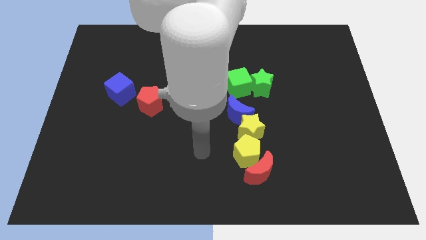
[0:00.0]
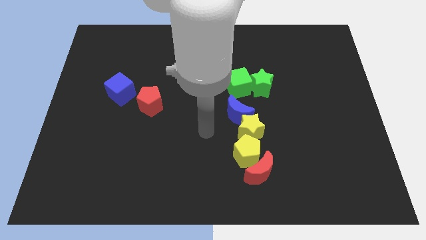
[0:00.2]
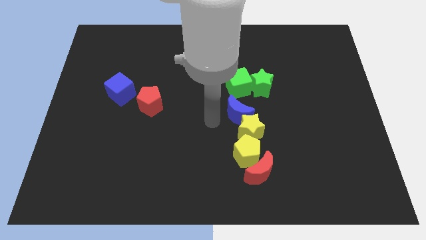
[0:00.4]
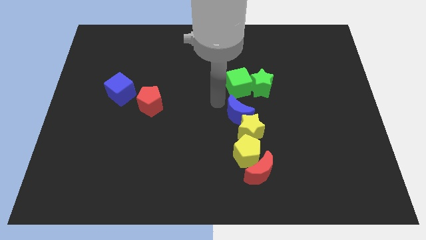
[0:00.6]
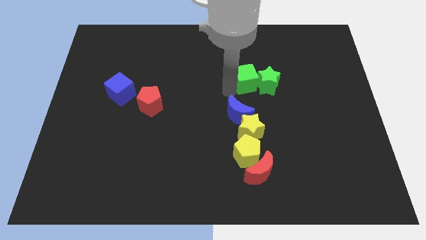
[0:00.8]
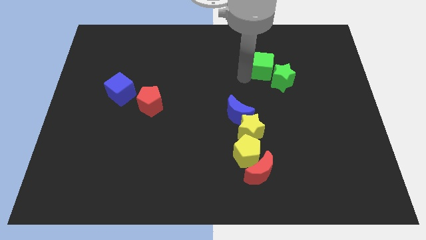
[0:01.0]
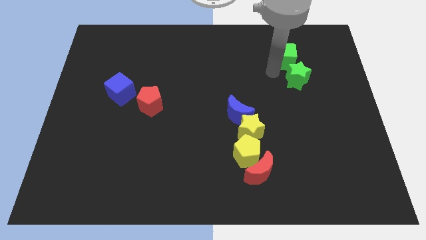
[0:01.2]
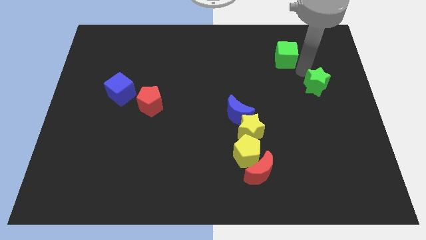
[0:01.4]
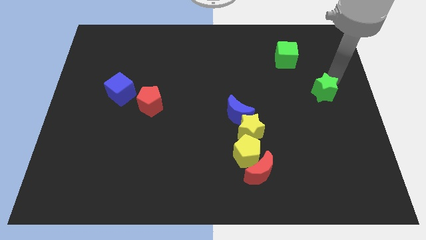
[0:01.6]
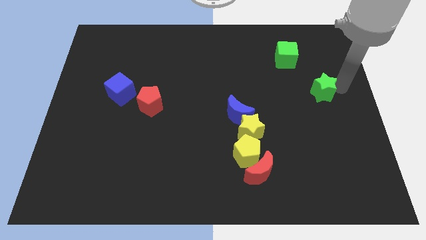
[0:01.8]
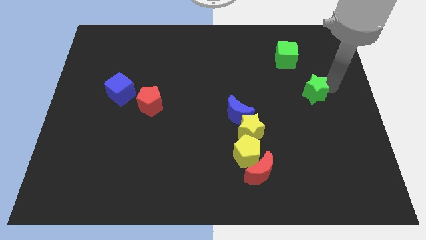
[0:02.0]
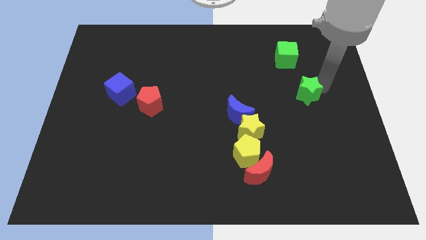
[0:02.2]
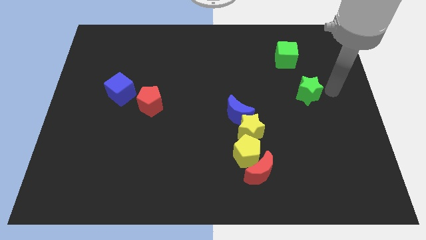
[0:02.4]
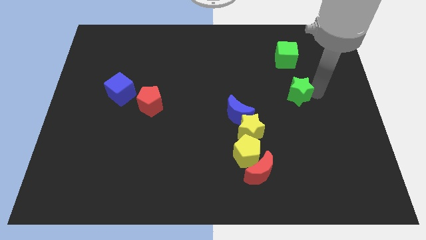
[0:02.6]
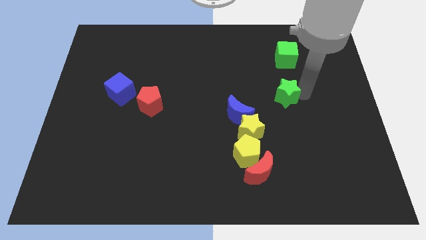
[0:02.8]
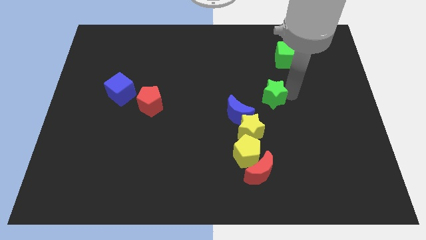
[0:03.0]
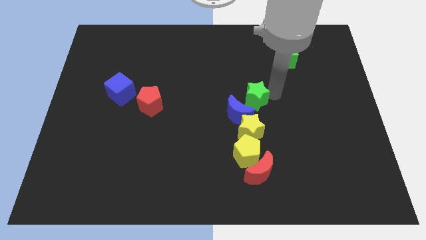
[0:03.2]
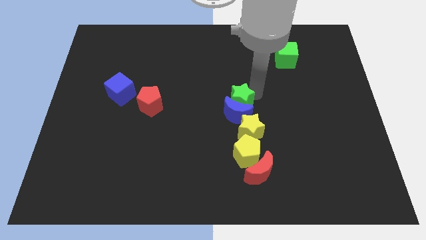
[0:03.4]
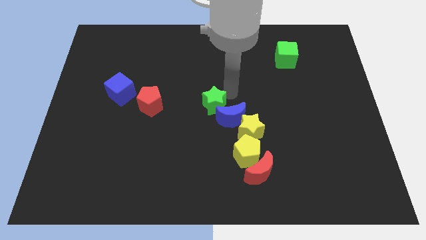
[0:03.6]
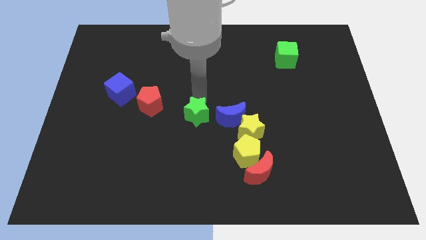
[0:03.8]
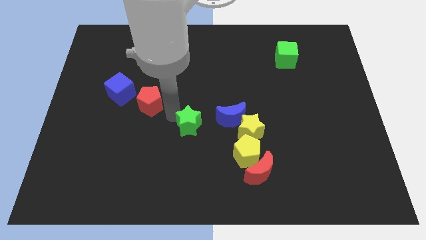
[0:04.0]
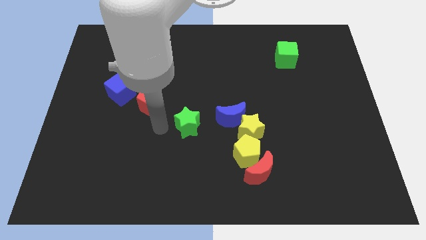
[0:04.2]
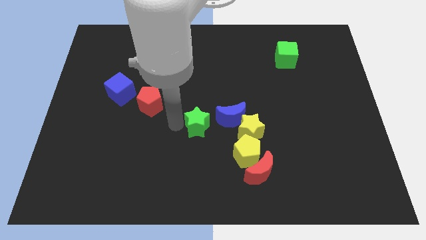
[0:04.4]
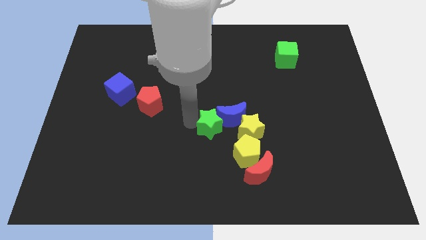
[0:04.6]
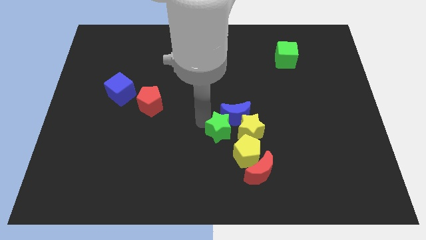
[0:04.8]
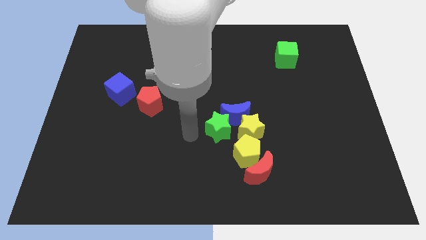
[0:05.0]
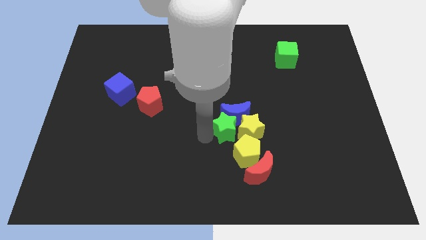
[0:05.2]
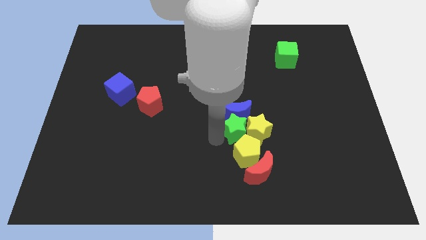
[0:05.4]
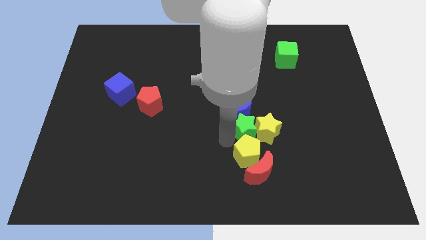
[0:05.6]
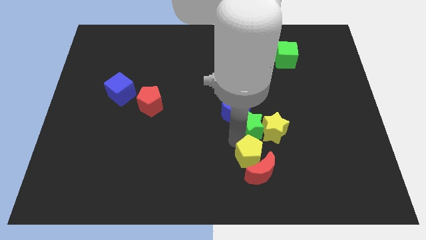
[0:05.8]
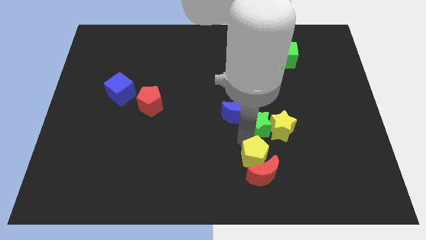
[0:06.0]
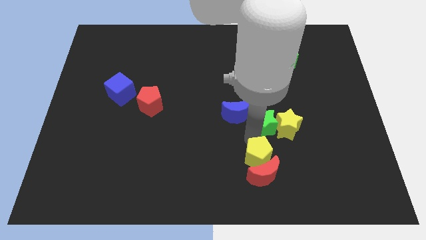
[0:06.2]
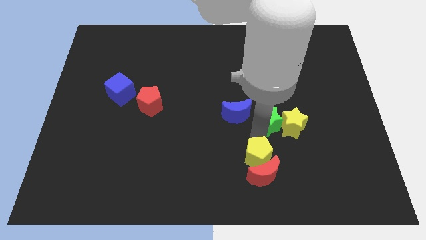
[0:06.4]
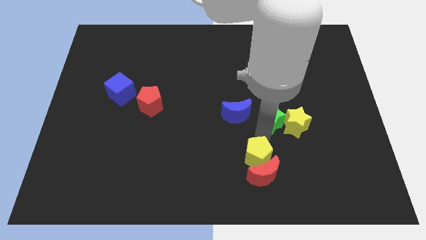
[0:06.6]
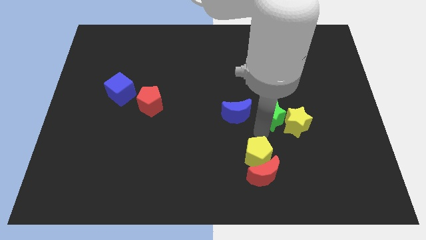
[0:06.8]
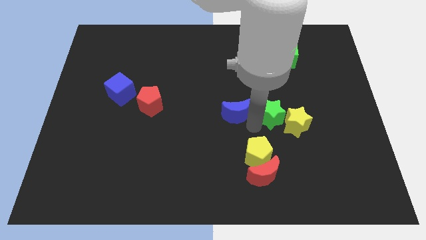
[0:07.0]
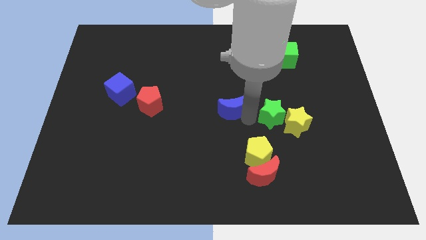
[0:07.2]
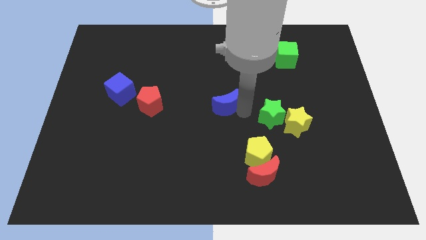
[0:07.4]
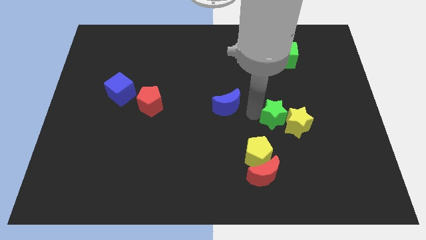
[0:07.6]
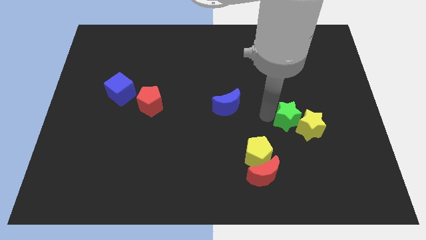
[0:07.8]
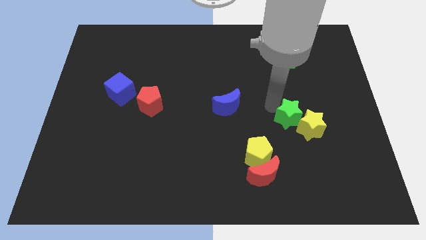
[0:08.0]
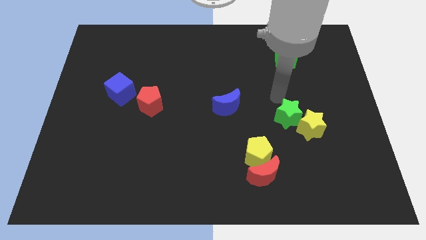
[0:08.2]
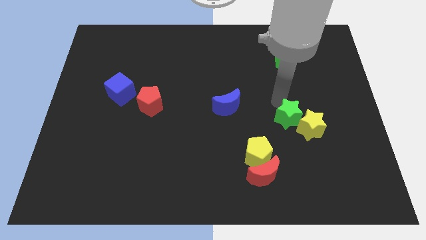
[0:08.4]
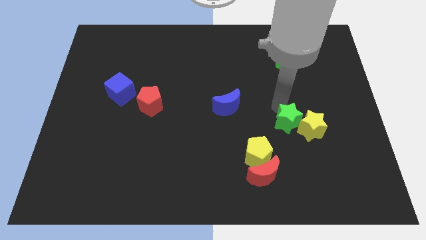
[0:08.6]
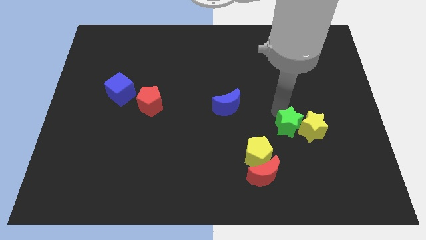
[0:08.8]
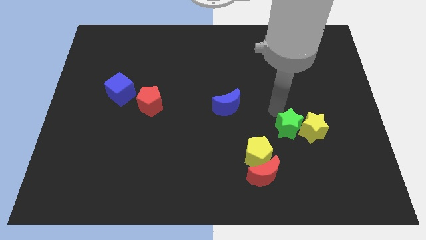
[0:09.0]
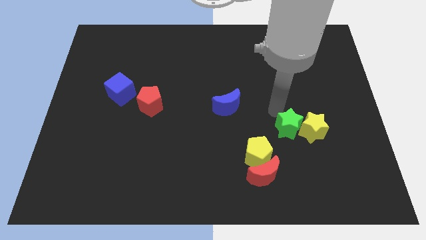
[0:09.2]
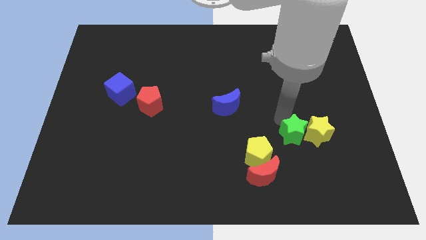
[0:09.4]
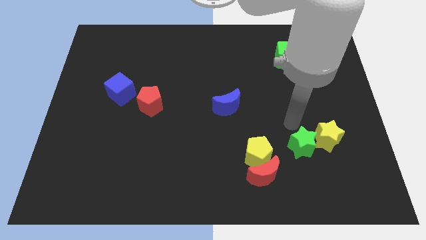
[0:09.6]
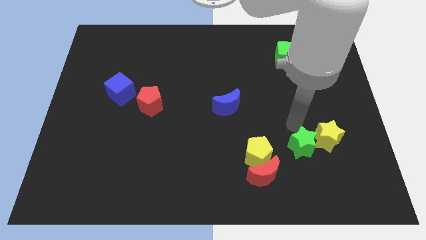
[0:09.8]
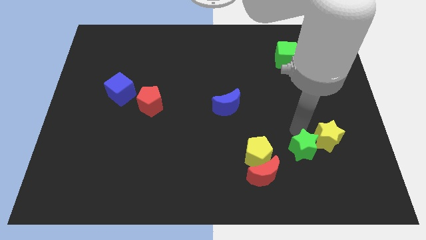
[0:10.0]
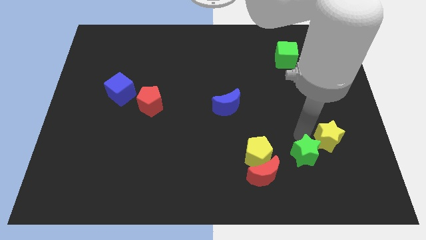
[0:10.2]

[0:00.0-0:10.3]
put the green star just right of the red moon

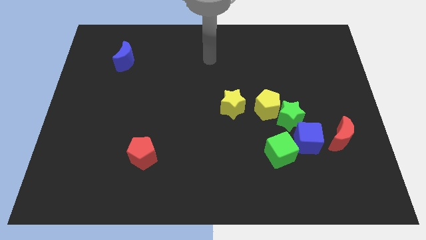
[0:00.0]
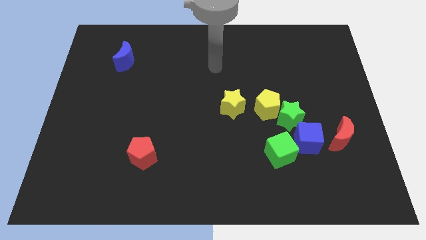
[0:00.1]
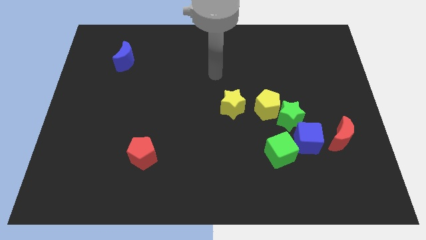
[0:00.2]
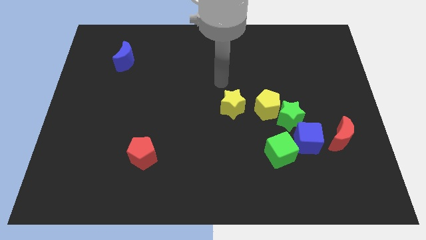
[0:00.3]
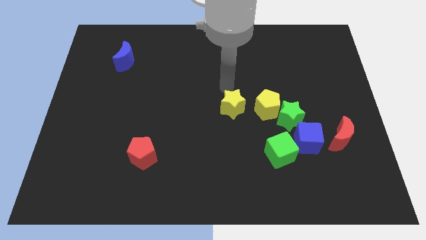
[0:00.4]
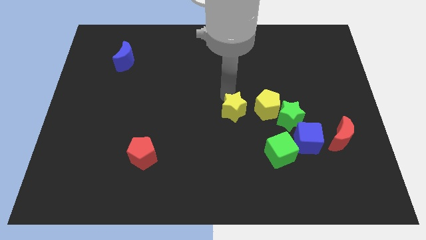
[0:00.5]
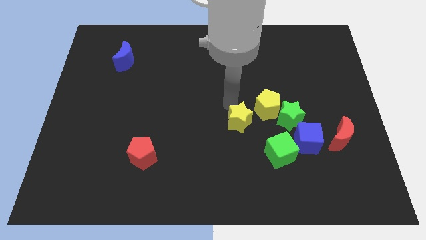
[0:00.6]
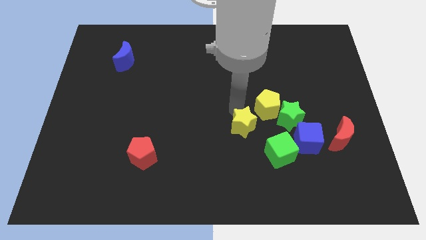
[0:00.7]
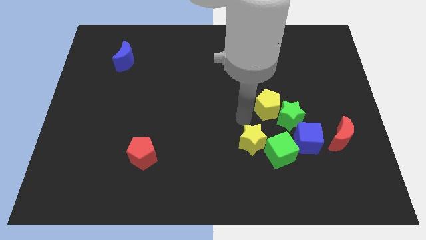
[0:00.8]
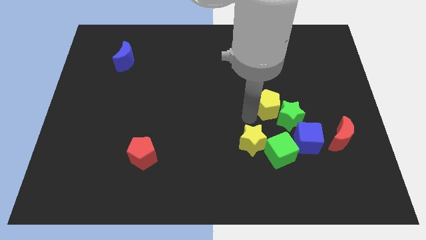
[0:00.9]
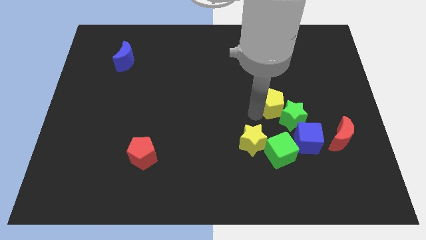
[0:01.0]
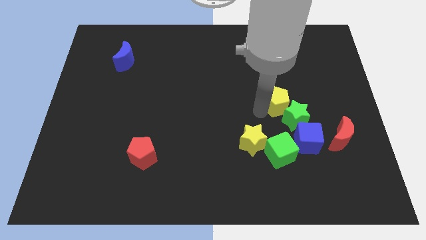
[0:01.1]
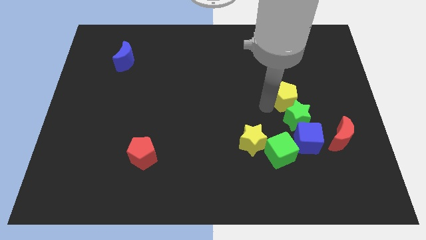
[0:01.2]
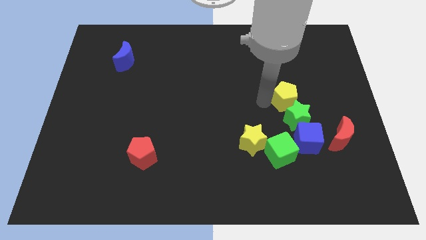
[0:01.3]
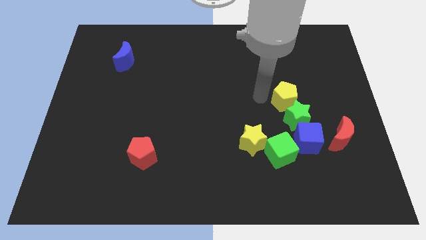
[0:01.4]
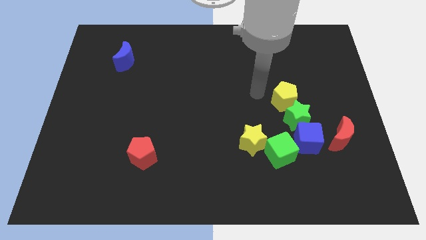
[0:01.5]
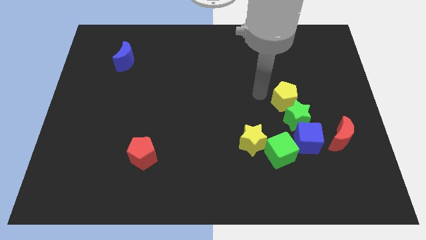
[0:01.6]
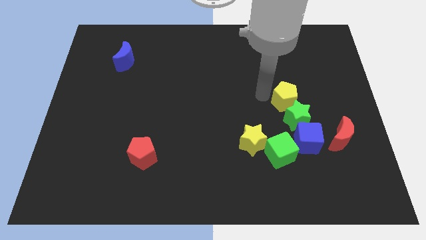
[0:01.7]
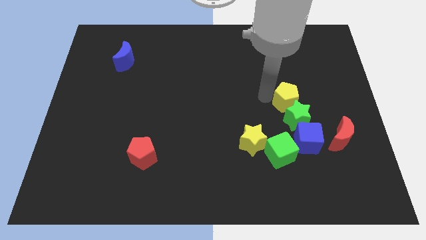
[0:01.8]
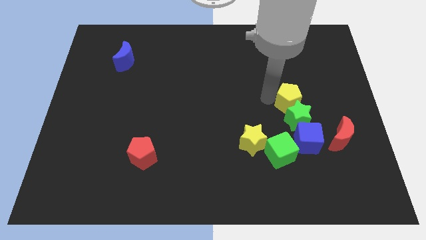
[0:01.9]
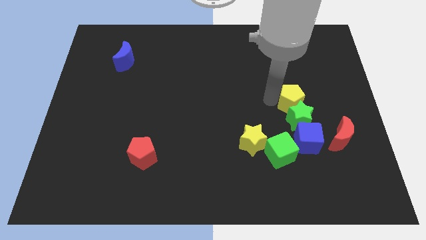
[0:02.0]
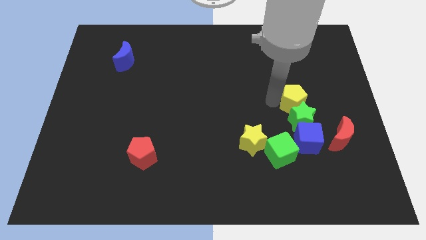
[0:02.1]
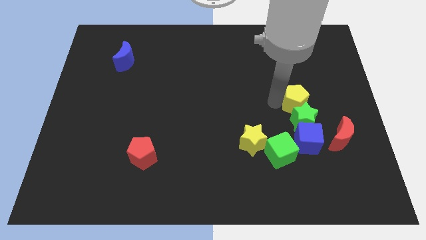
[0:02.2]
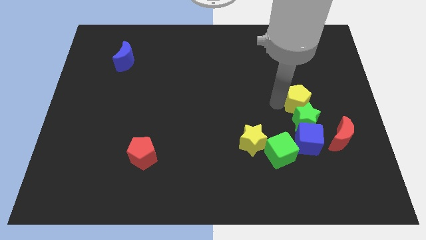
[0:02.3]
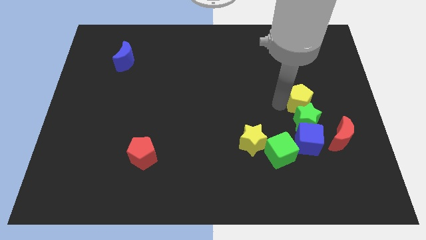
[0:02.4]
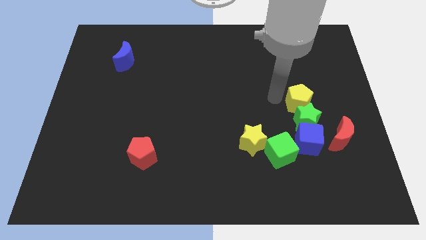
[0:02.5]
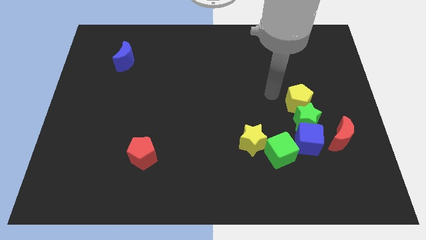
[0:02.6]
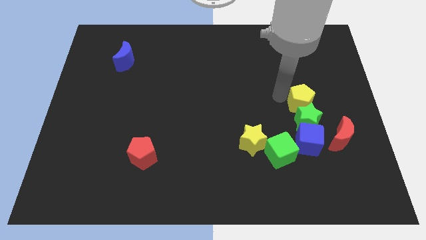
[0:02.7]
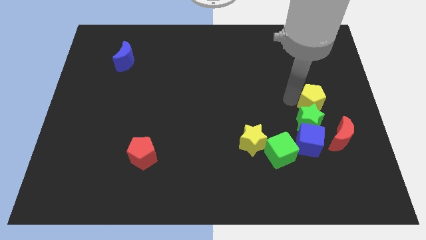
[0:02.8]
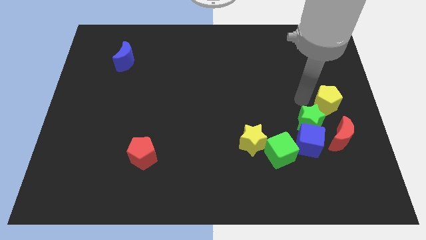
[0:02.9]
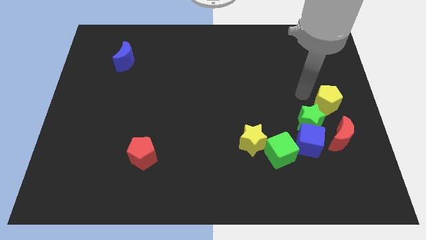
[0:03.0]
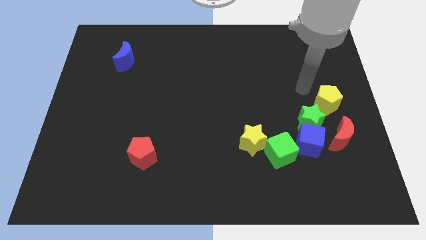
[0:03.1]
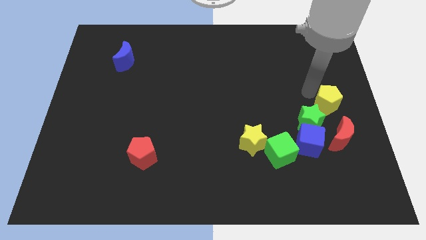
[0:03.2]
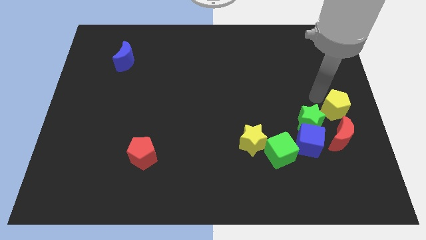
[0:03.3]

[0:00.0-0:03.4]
slide the yellow pentagon right of the green star
